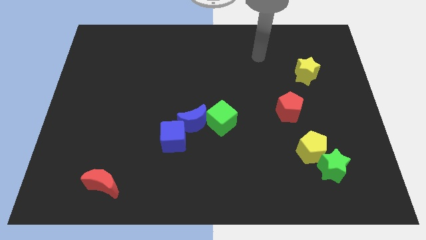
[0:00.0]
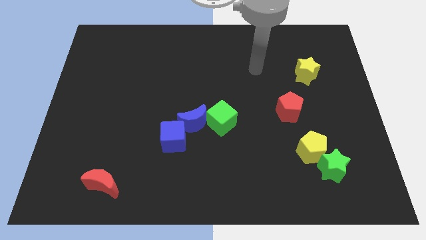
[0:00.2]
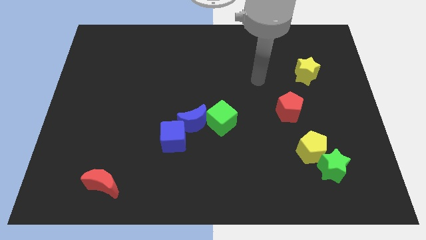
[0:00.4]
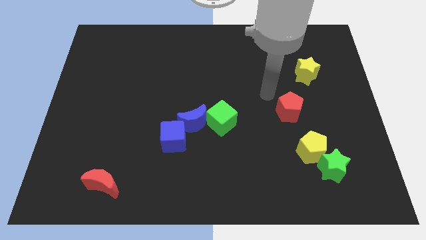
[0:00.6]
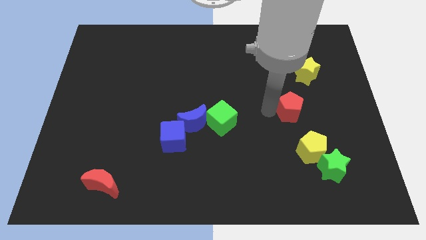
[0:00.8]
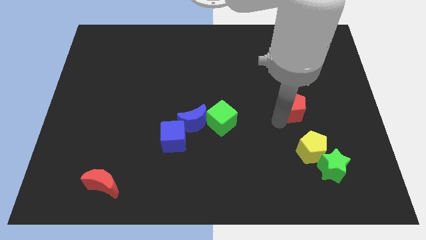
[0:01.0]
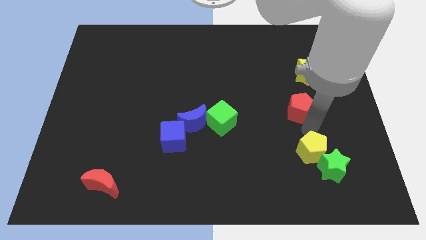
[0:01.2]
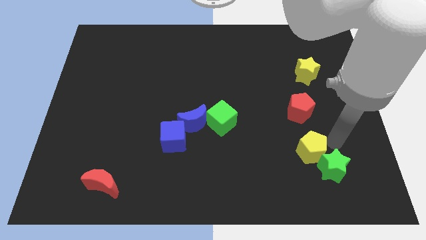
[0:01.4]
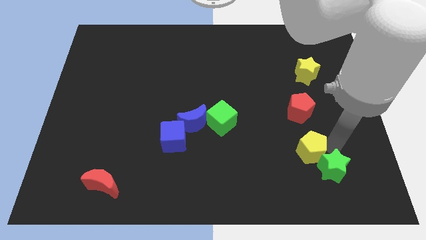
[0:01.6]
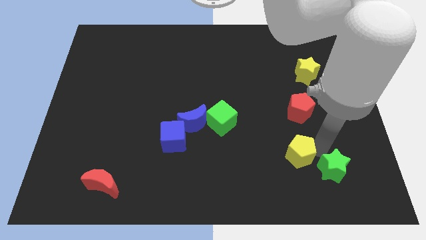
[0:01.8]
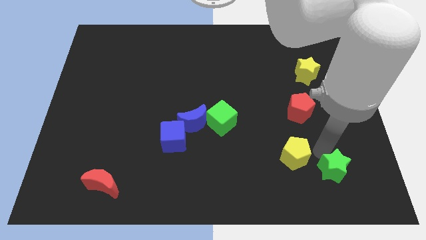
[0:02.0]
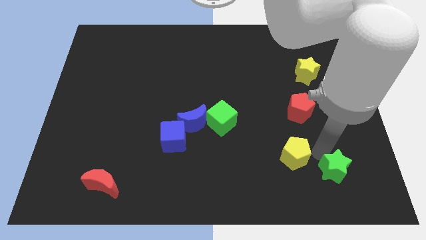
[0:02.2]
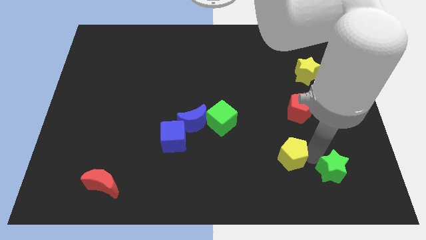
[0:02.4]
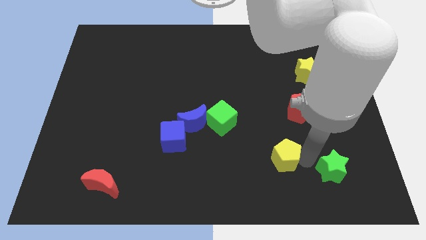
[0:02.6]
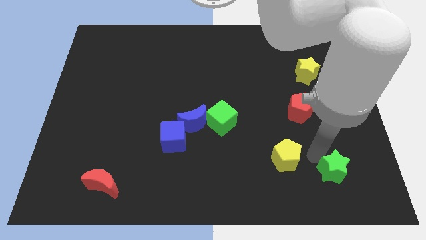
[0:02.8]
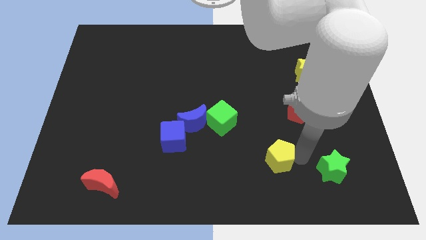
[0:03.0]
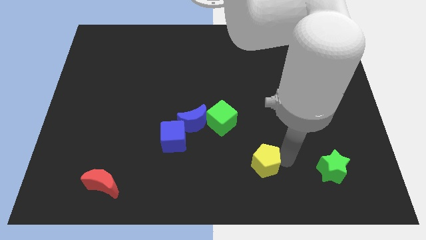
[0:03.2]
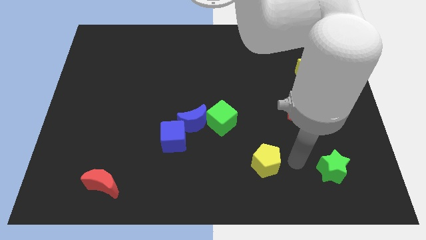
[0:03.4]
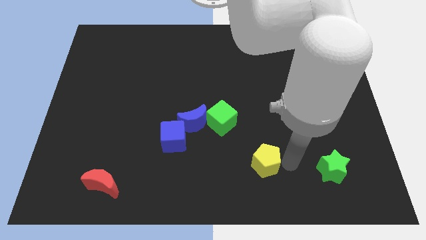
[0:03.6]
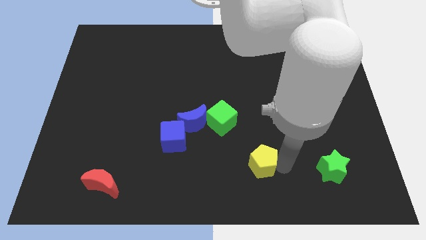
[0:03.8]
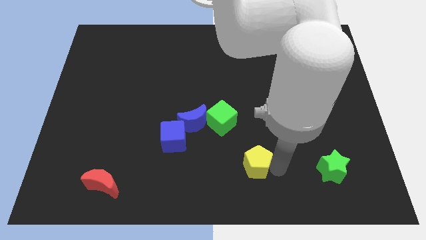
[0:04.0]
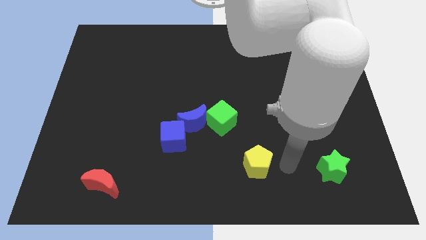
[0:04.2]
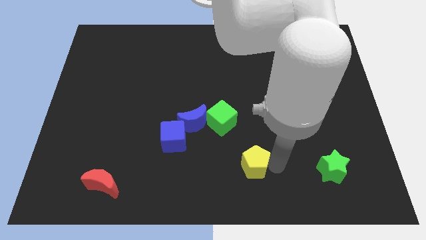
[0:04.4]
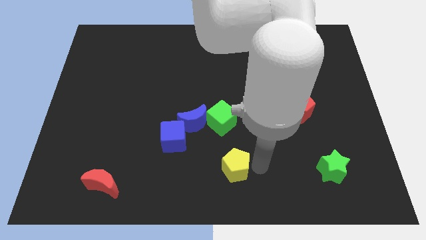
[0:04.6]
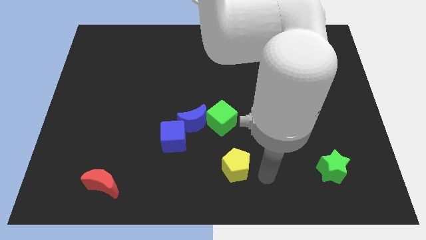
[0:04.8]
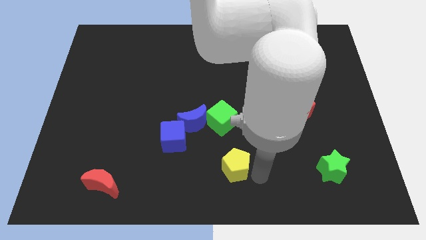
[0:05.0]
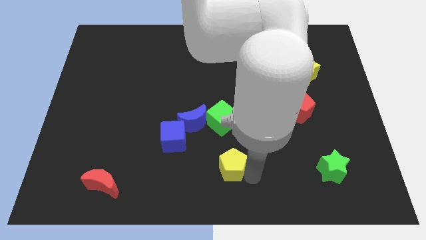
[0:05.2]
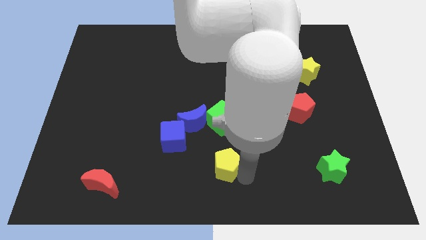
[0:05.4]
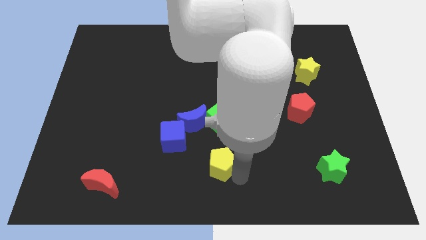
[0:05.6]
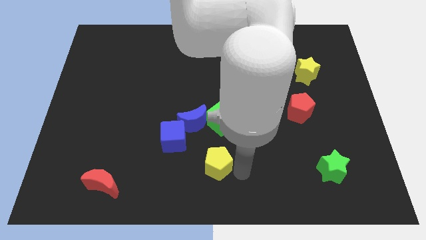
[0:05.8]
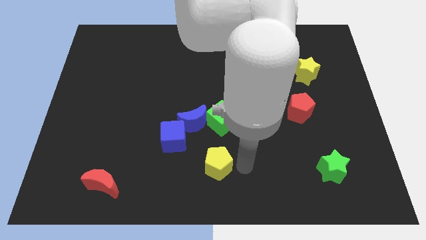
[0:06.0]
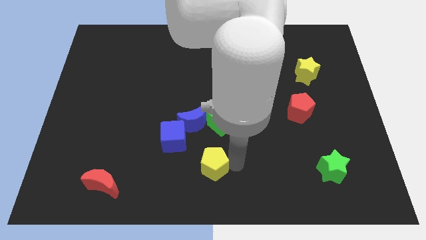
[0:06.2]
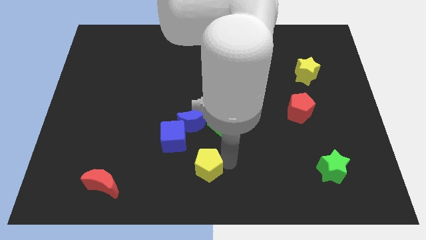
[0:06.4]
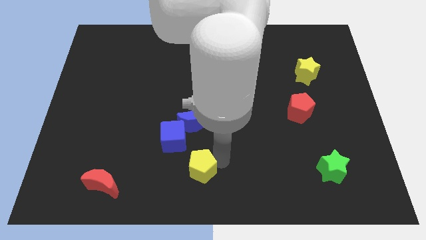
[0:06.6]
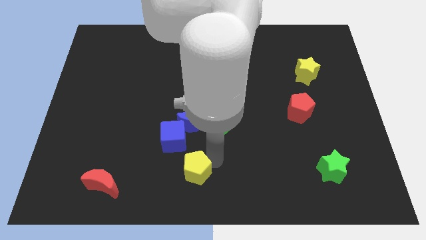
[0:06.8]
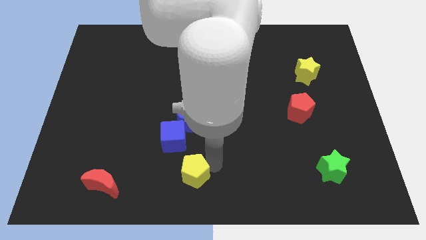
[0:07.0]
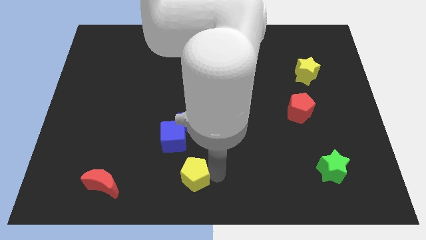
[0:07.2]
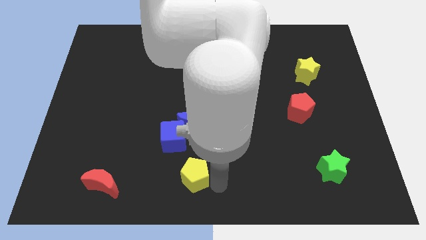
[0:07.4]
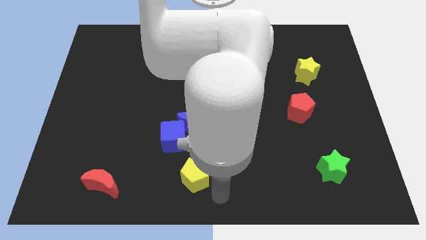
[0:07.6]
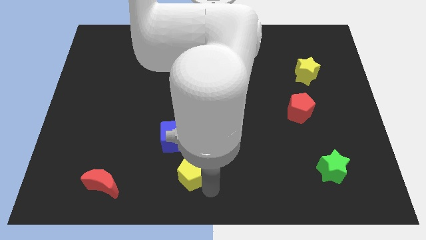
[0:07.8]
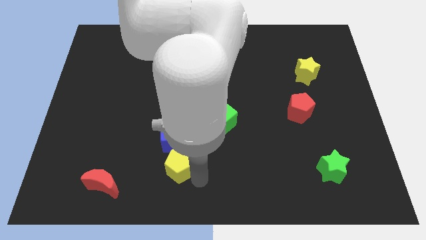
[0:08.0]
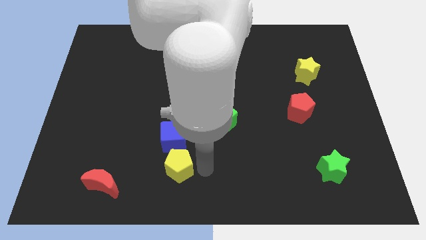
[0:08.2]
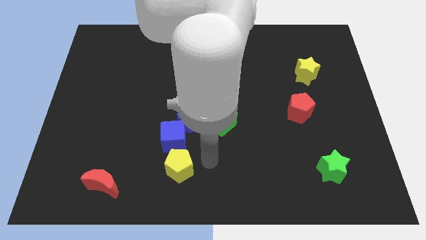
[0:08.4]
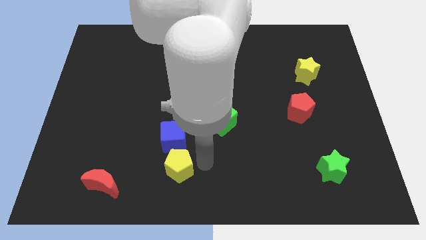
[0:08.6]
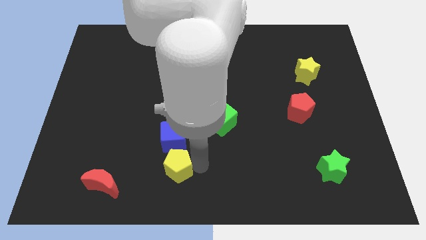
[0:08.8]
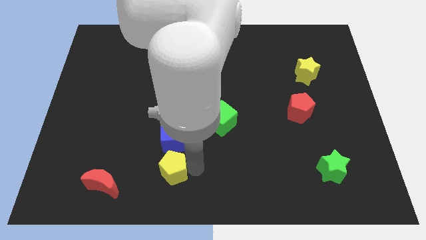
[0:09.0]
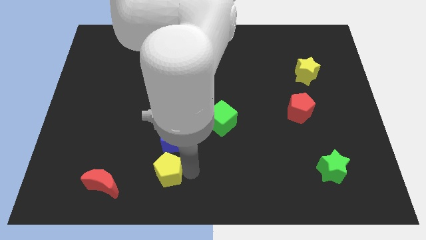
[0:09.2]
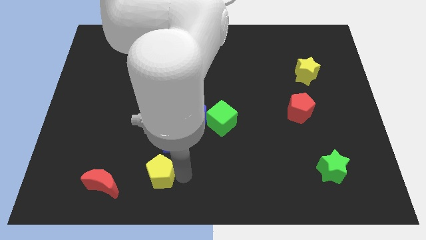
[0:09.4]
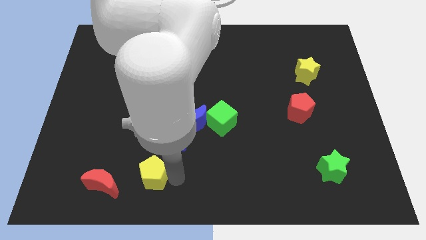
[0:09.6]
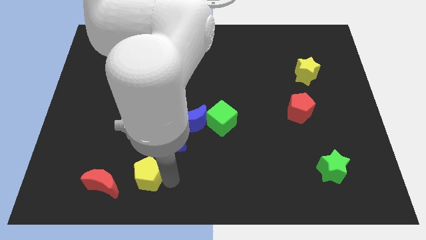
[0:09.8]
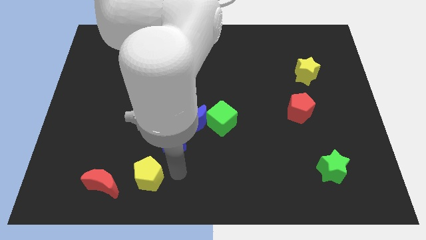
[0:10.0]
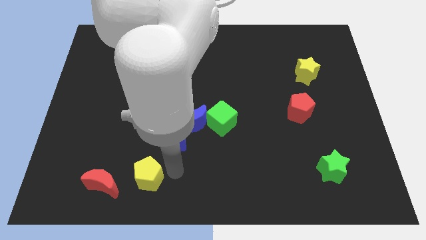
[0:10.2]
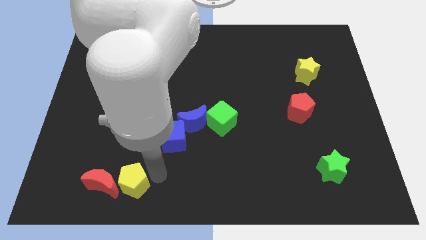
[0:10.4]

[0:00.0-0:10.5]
move the yellow pentagon to the red moon

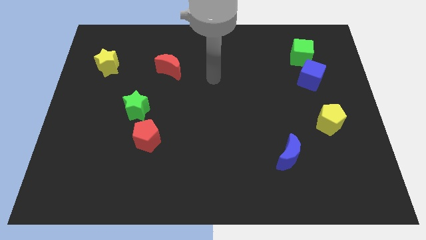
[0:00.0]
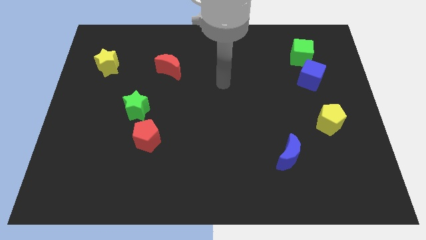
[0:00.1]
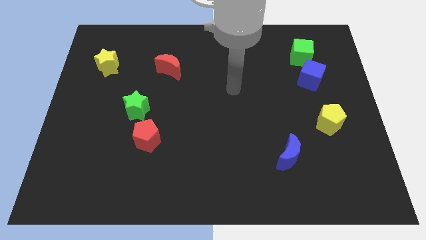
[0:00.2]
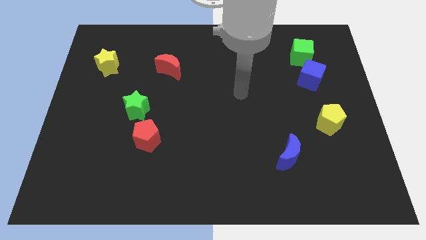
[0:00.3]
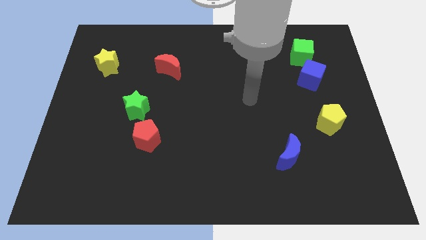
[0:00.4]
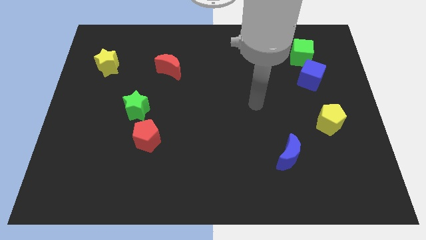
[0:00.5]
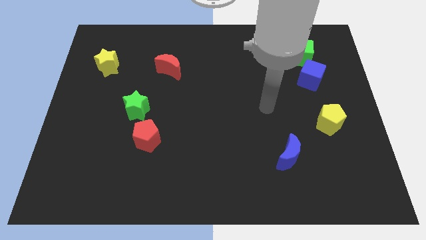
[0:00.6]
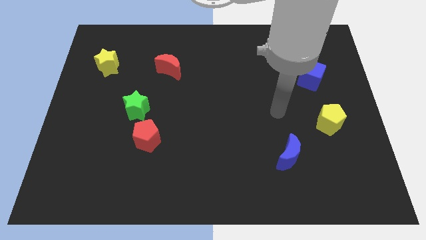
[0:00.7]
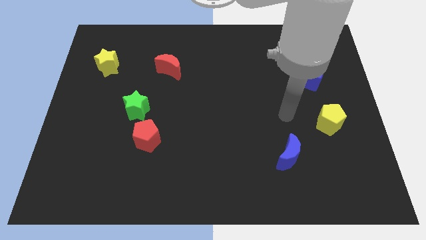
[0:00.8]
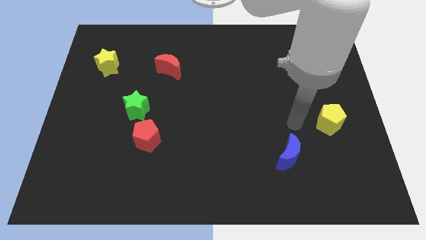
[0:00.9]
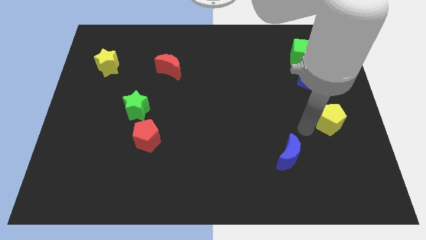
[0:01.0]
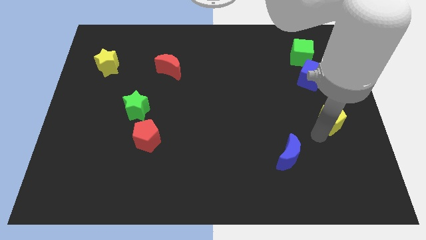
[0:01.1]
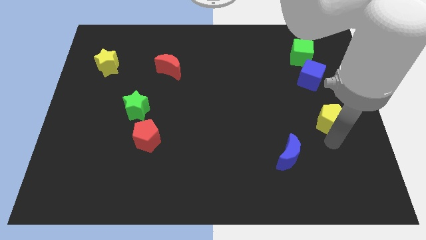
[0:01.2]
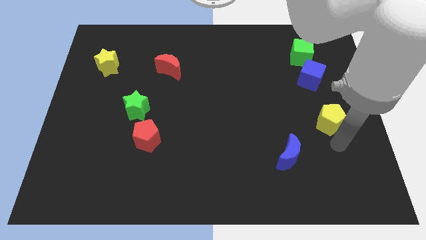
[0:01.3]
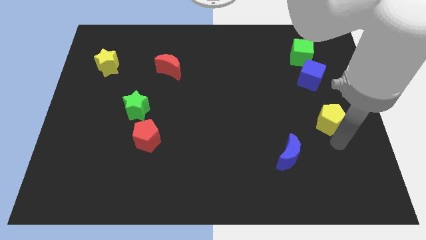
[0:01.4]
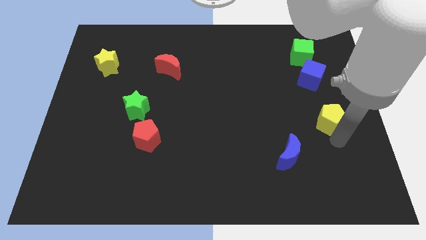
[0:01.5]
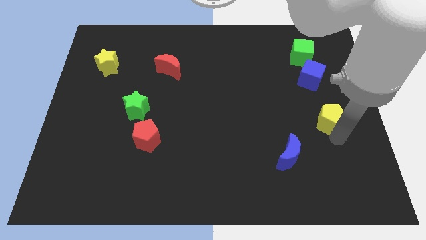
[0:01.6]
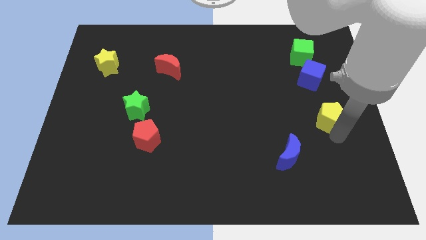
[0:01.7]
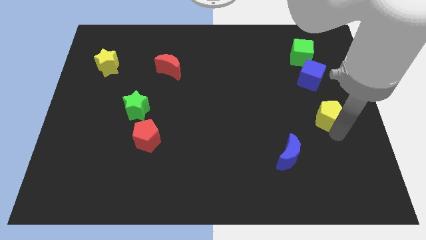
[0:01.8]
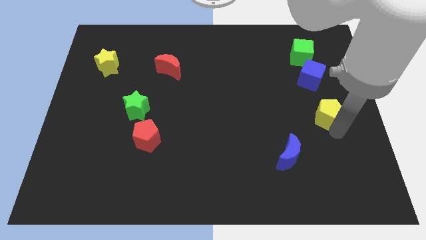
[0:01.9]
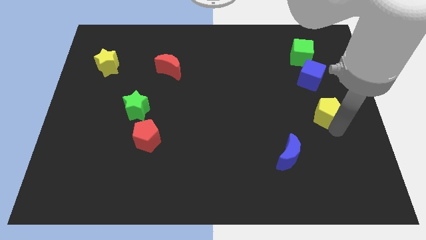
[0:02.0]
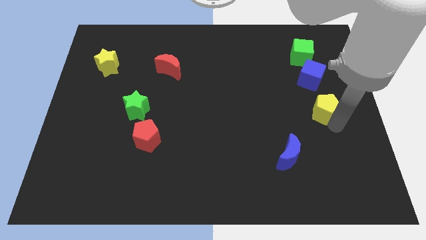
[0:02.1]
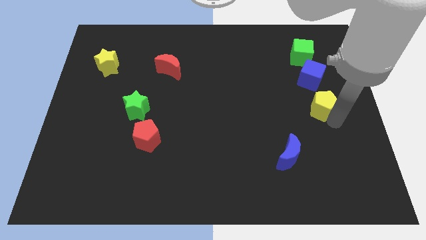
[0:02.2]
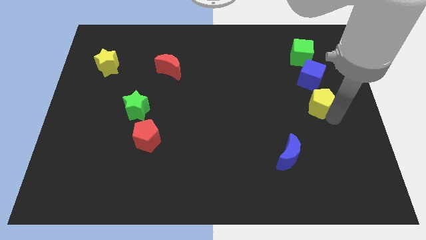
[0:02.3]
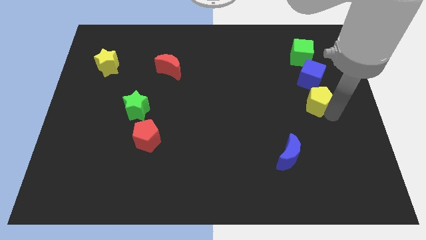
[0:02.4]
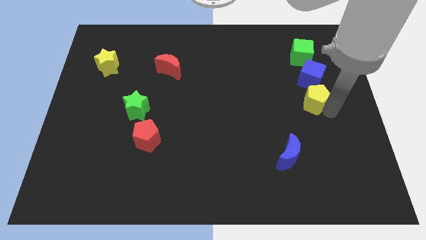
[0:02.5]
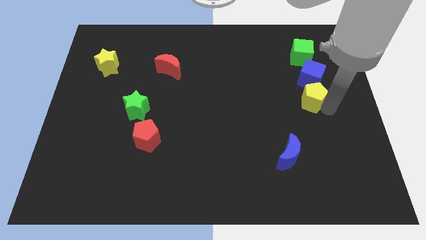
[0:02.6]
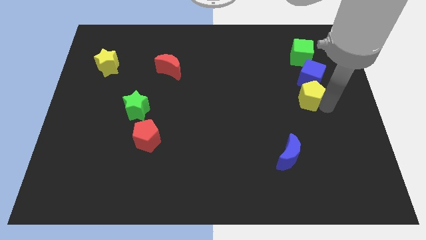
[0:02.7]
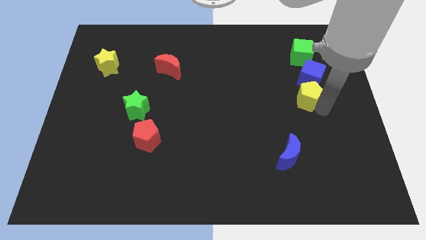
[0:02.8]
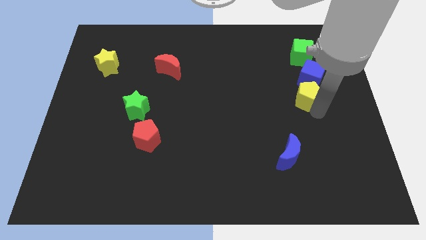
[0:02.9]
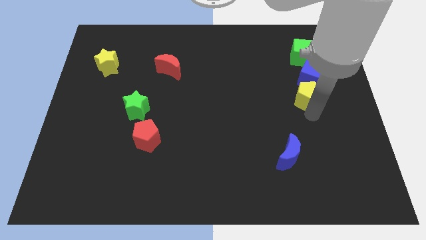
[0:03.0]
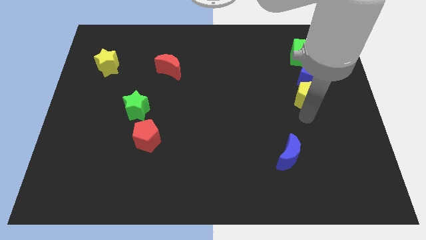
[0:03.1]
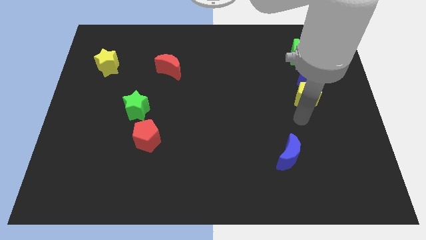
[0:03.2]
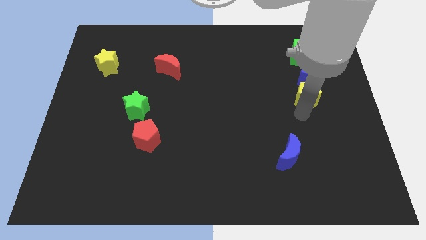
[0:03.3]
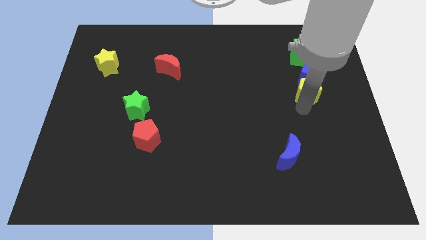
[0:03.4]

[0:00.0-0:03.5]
push the yellow pentagon to the blue cube

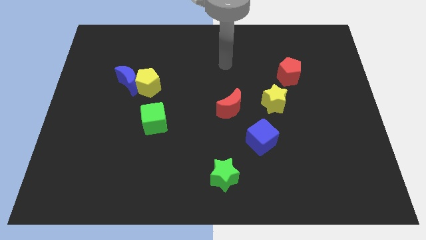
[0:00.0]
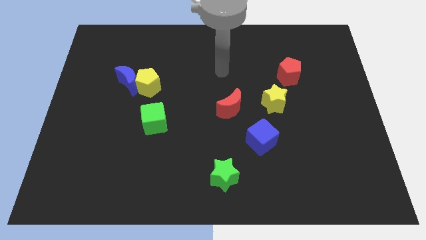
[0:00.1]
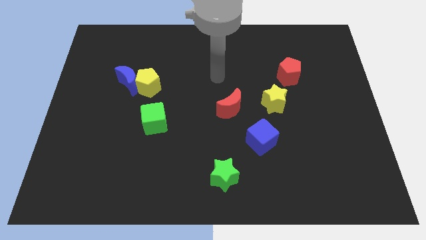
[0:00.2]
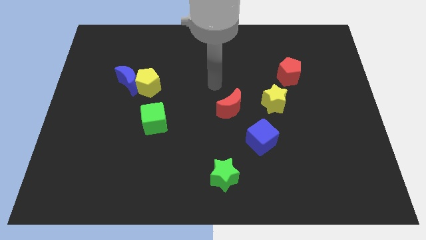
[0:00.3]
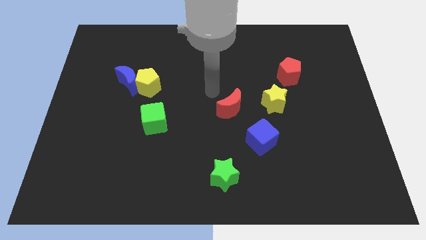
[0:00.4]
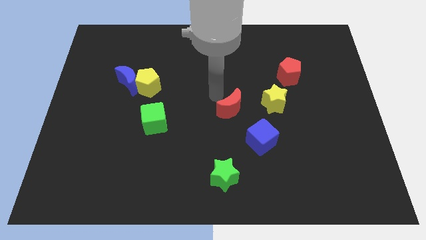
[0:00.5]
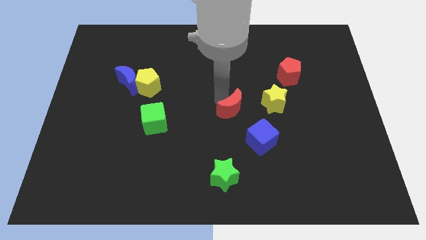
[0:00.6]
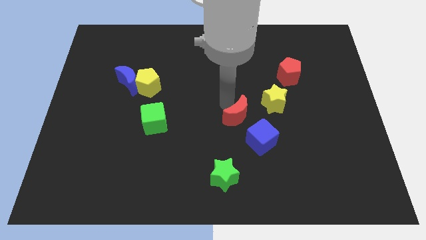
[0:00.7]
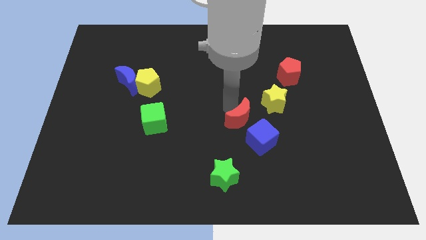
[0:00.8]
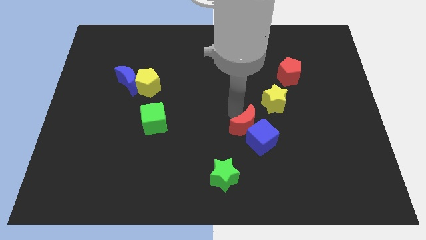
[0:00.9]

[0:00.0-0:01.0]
move the red moon next to the blue cube
